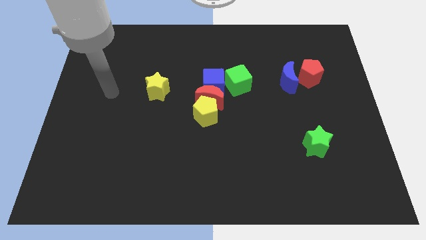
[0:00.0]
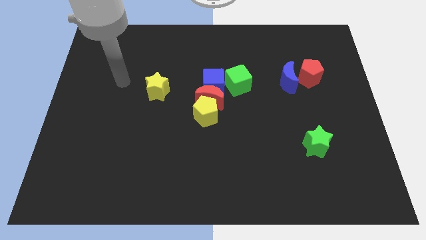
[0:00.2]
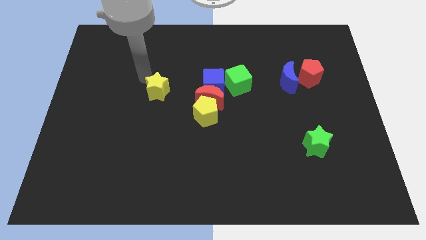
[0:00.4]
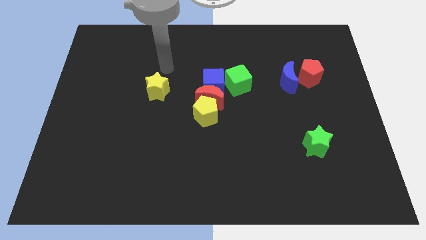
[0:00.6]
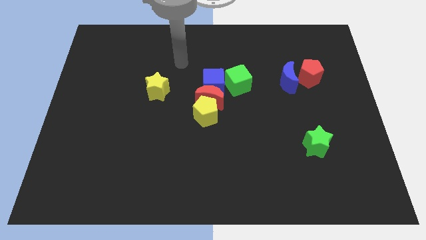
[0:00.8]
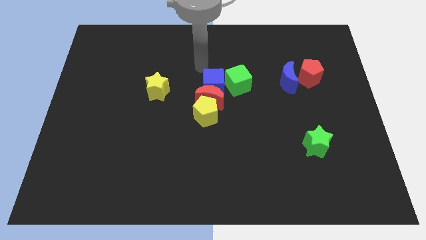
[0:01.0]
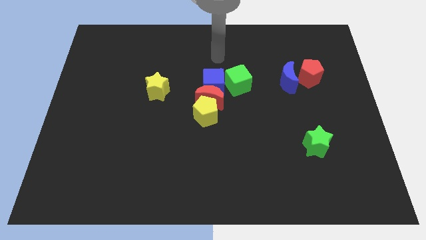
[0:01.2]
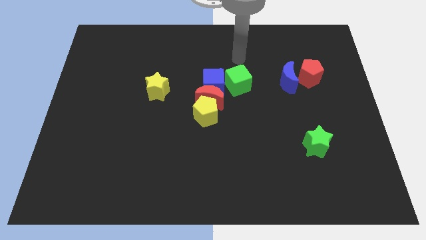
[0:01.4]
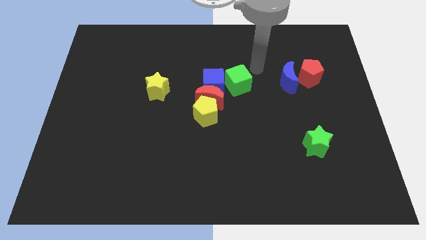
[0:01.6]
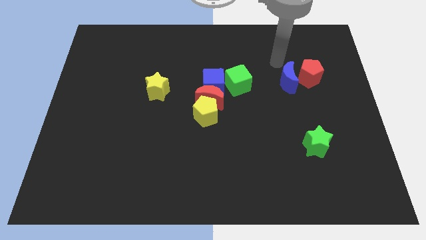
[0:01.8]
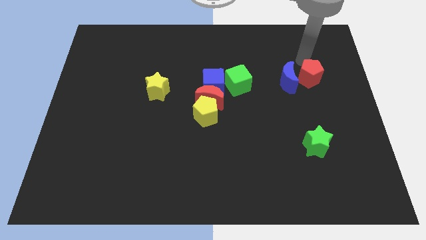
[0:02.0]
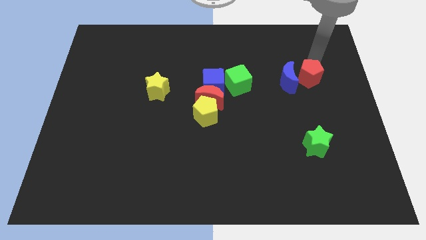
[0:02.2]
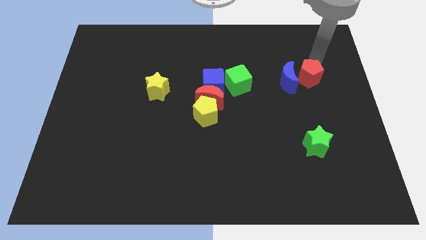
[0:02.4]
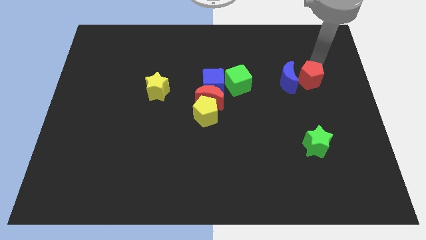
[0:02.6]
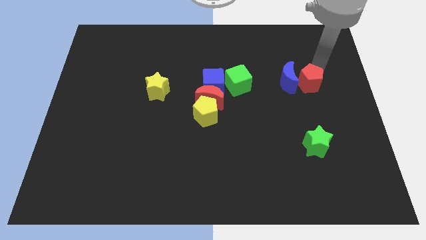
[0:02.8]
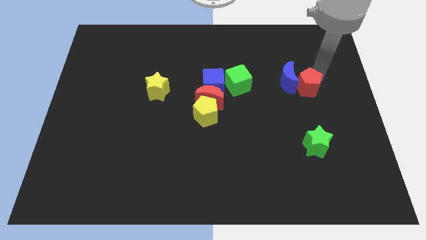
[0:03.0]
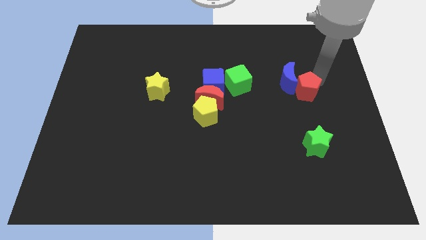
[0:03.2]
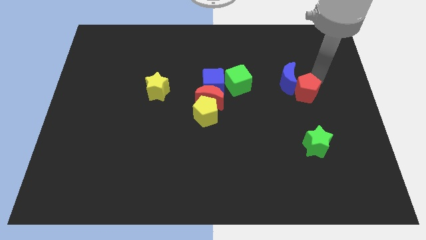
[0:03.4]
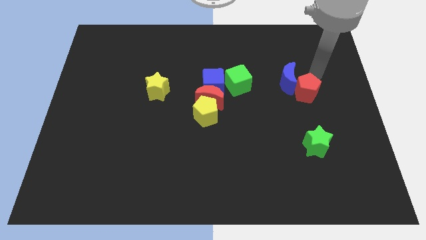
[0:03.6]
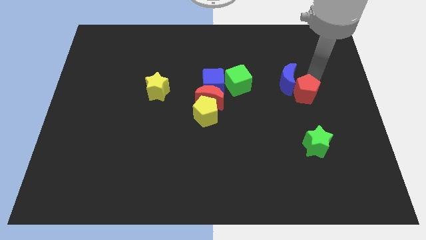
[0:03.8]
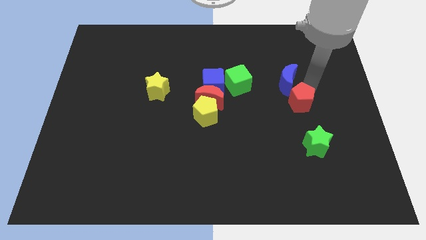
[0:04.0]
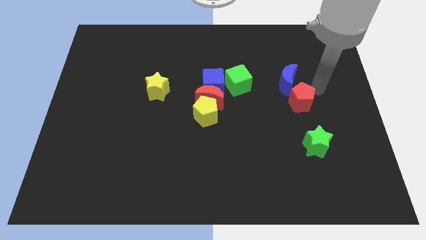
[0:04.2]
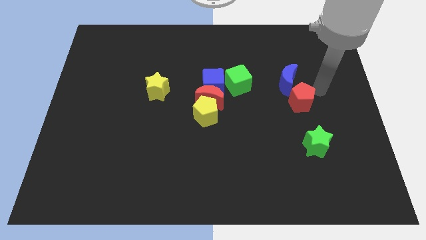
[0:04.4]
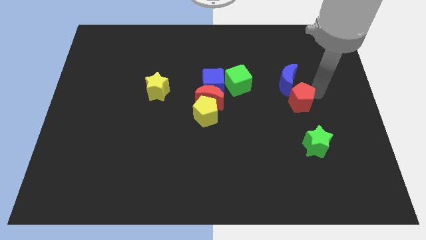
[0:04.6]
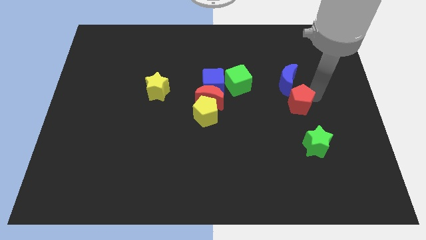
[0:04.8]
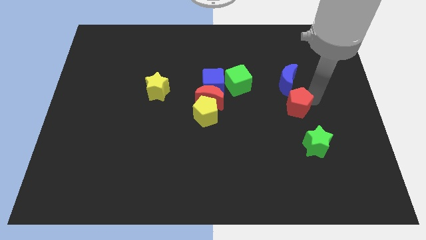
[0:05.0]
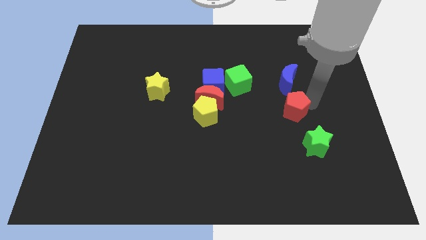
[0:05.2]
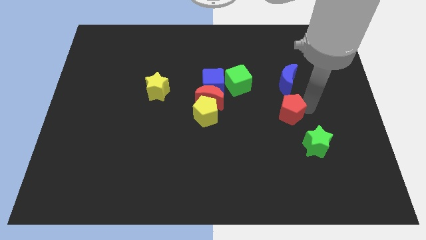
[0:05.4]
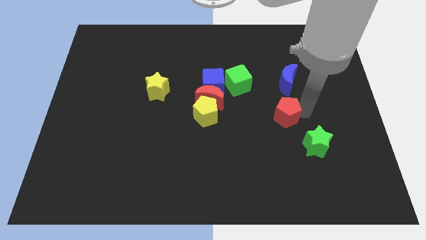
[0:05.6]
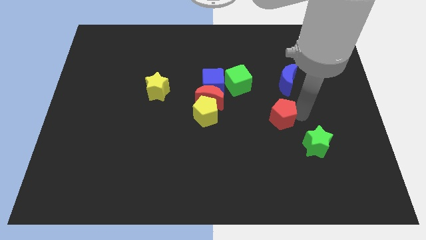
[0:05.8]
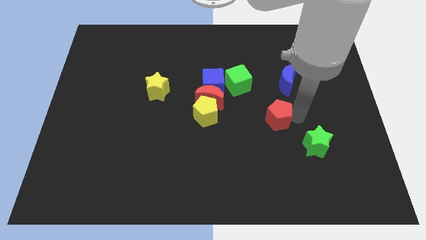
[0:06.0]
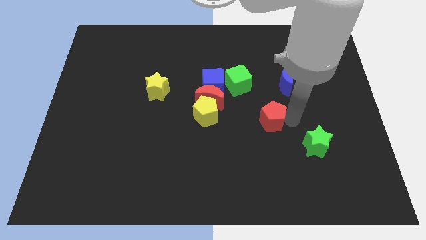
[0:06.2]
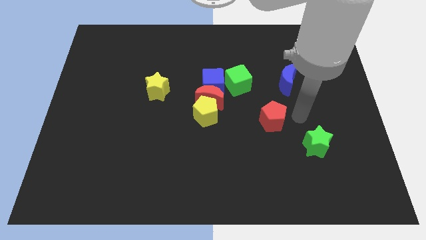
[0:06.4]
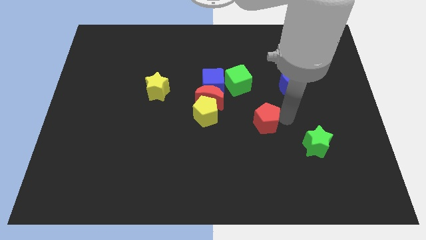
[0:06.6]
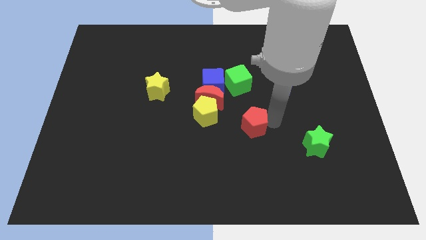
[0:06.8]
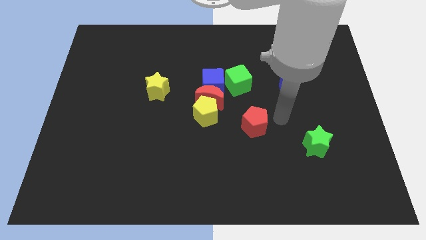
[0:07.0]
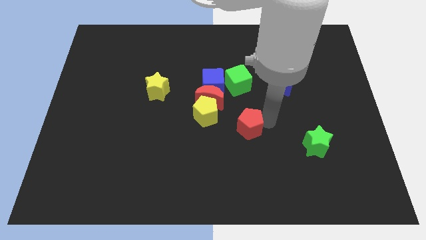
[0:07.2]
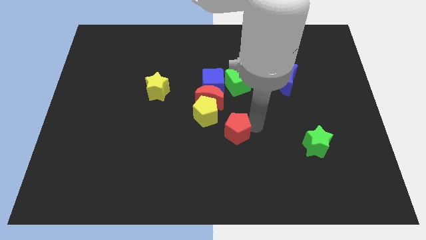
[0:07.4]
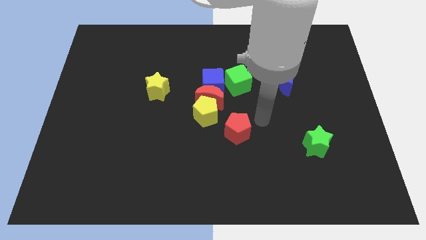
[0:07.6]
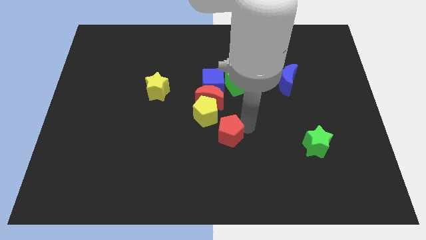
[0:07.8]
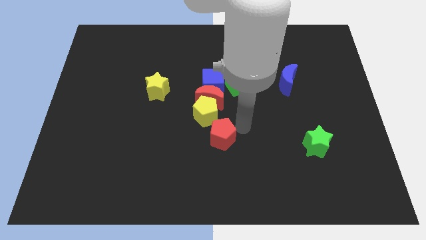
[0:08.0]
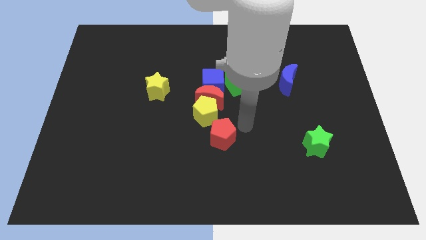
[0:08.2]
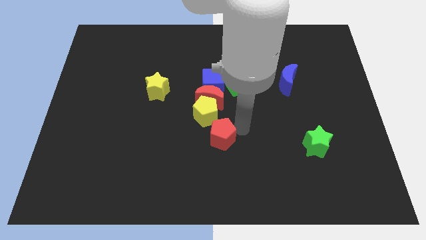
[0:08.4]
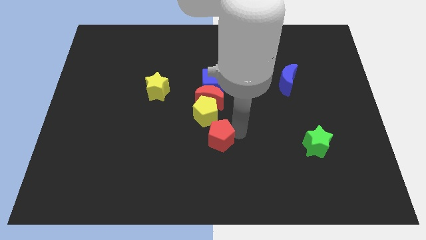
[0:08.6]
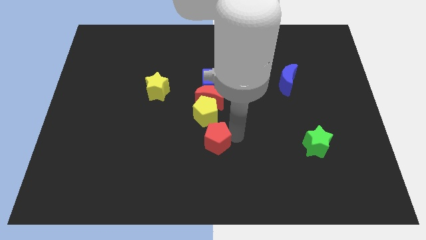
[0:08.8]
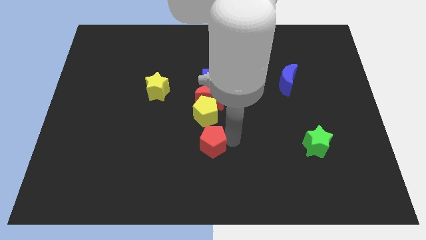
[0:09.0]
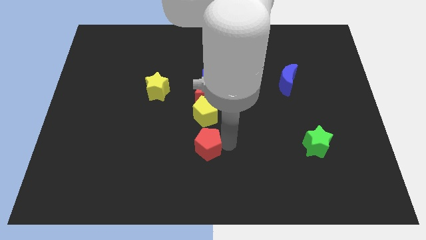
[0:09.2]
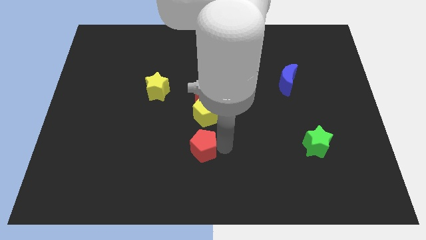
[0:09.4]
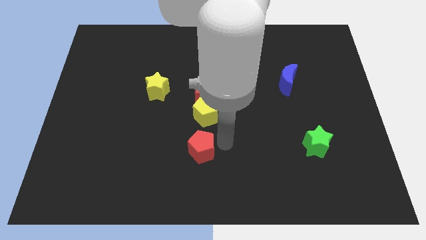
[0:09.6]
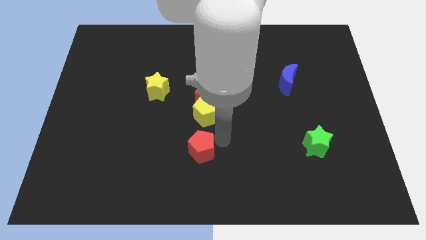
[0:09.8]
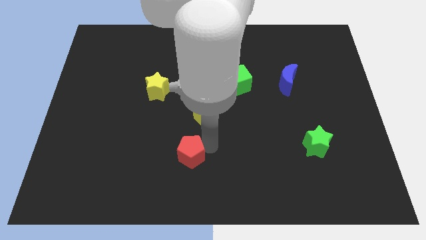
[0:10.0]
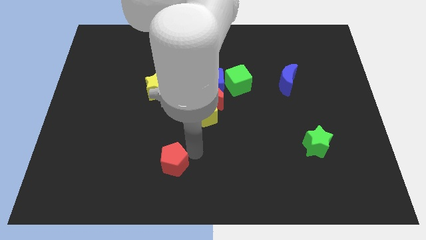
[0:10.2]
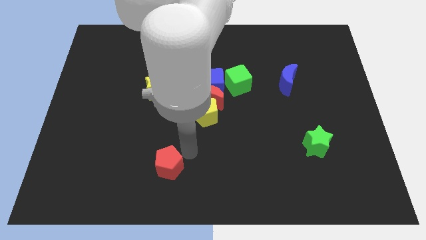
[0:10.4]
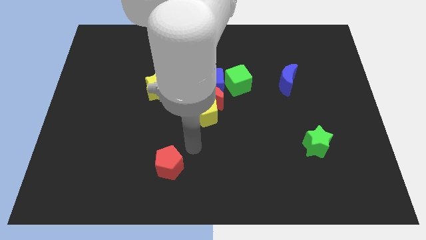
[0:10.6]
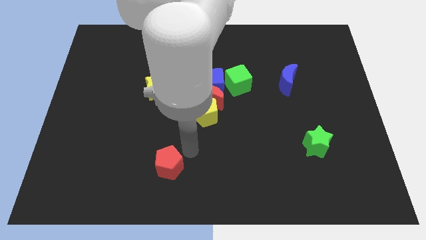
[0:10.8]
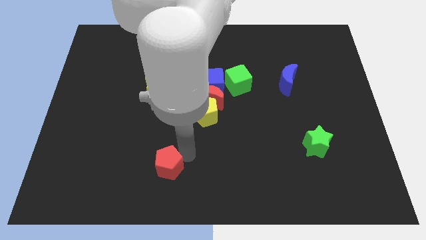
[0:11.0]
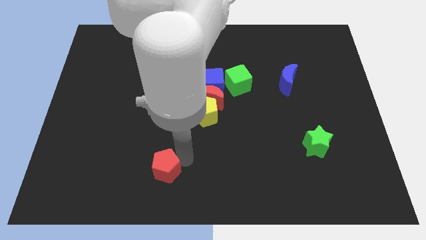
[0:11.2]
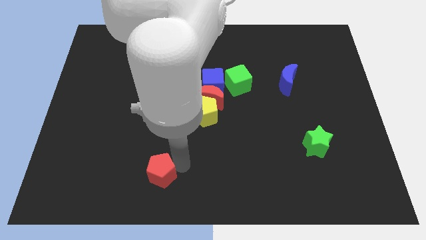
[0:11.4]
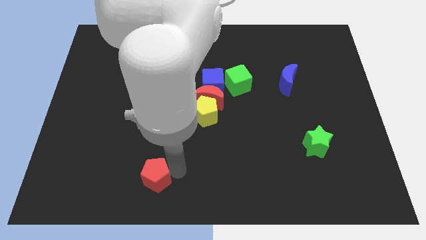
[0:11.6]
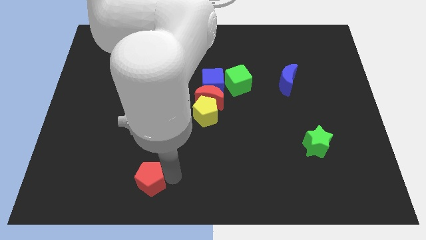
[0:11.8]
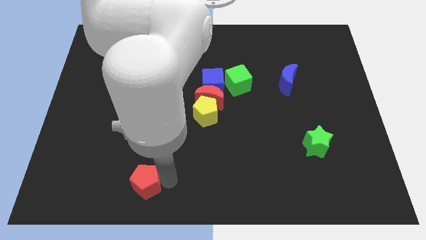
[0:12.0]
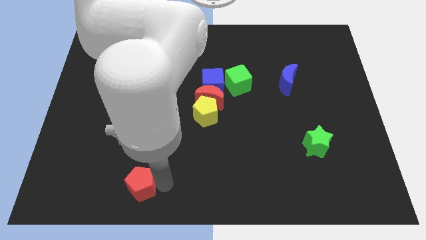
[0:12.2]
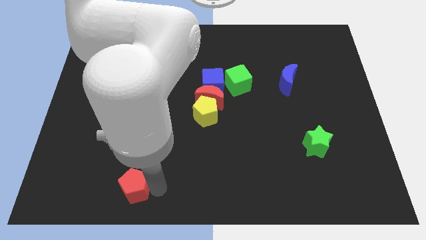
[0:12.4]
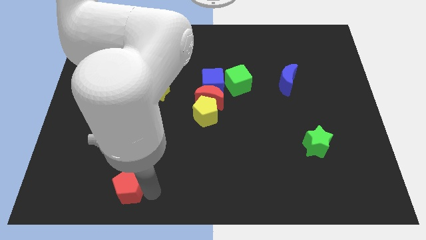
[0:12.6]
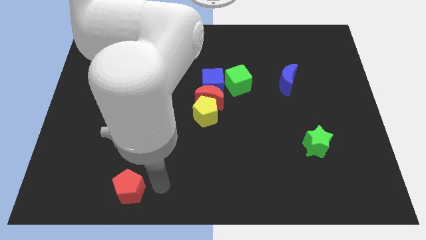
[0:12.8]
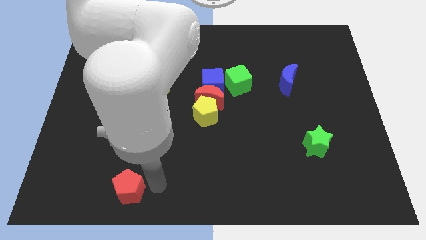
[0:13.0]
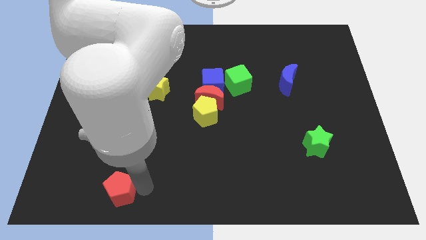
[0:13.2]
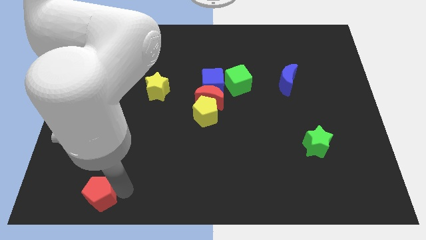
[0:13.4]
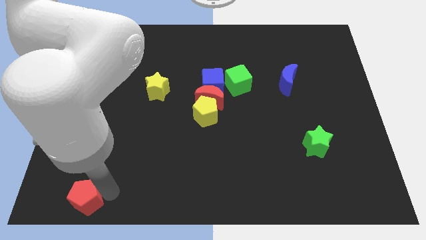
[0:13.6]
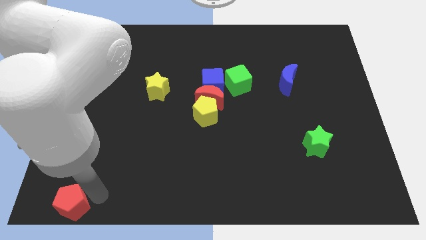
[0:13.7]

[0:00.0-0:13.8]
put the red pentagon to the bottom left
